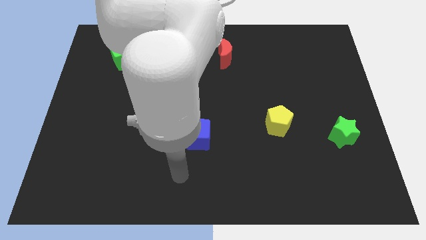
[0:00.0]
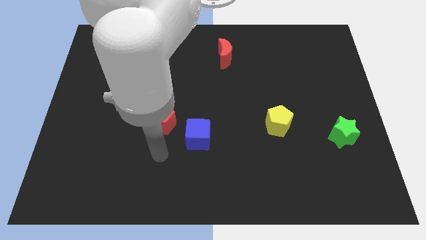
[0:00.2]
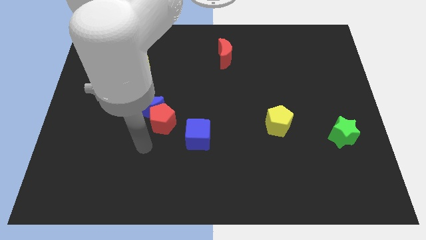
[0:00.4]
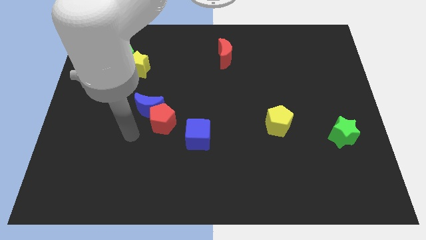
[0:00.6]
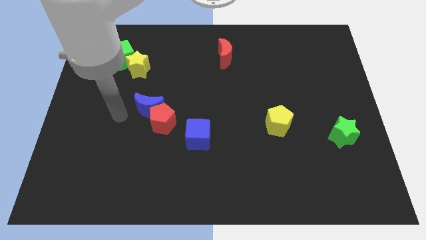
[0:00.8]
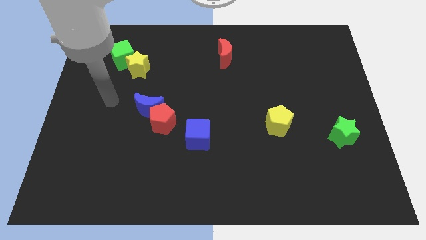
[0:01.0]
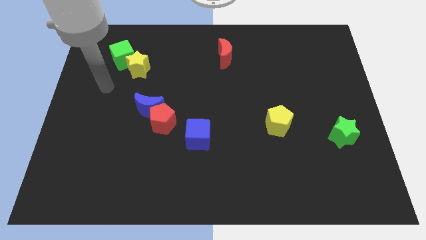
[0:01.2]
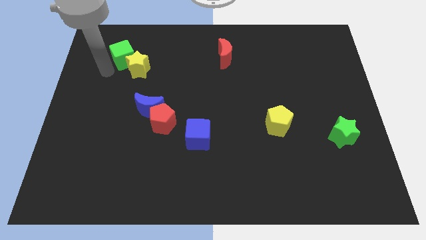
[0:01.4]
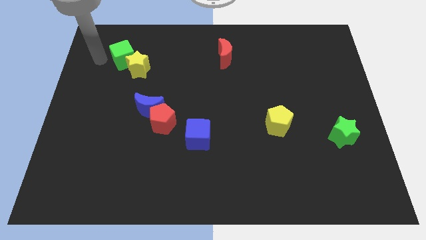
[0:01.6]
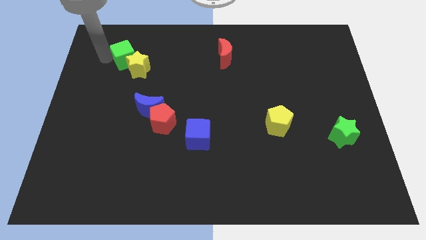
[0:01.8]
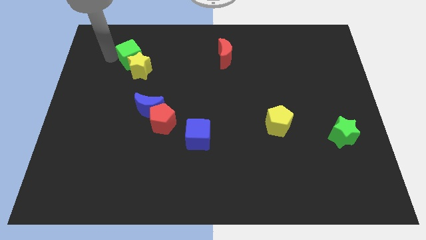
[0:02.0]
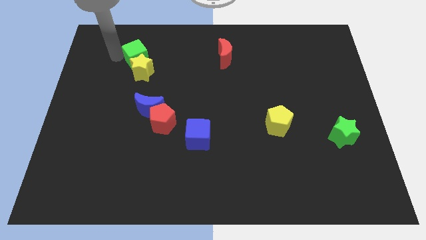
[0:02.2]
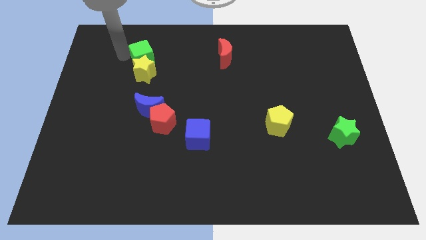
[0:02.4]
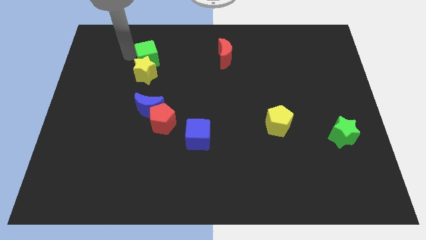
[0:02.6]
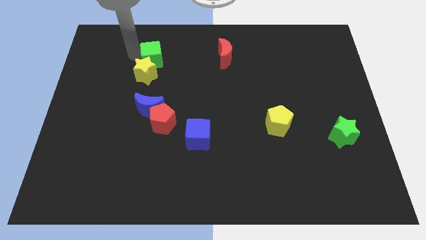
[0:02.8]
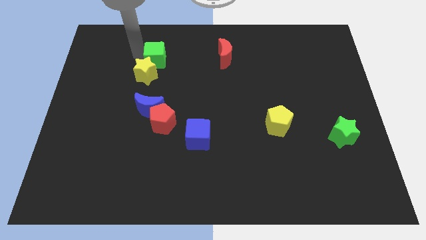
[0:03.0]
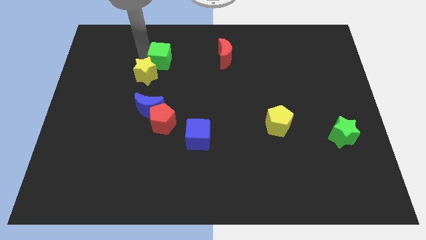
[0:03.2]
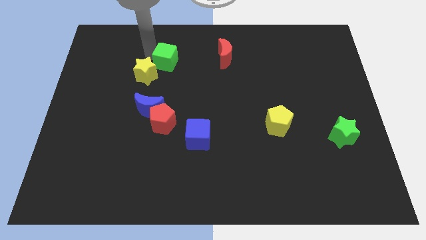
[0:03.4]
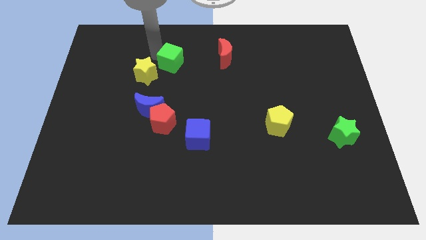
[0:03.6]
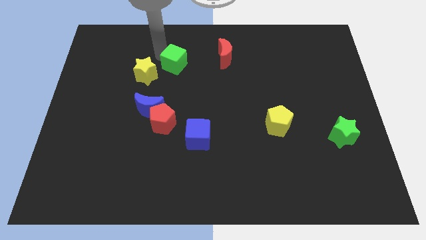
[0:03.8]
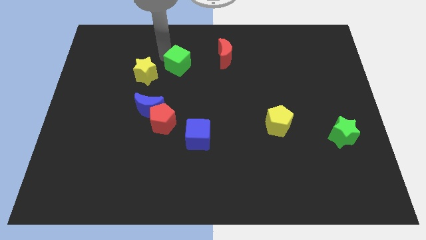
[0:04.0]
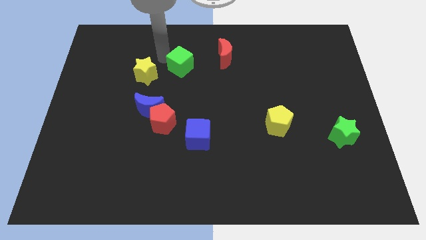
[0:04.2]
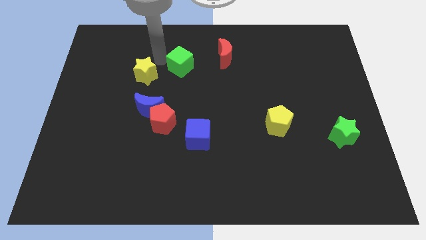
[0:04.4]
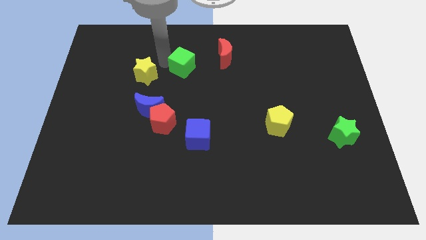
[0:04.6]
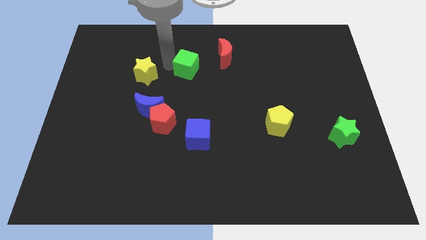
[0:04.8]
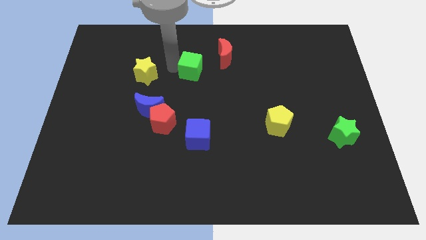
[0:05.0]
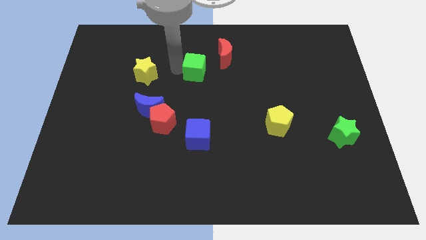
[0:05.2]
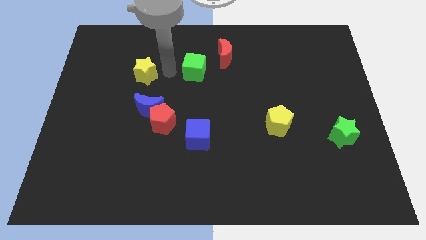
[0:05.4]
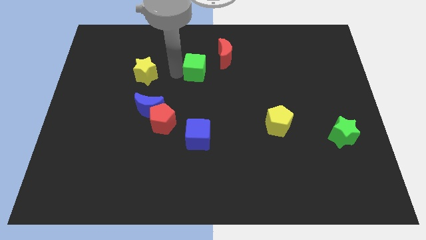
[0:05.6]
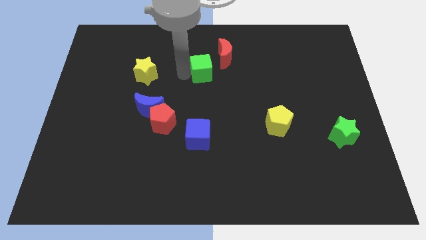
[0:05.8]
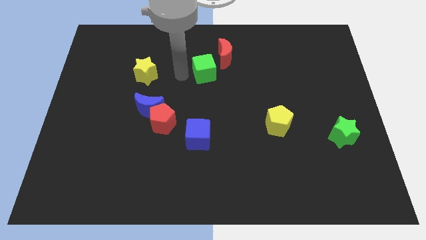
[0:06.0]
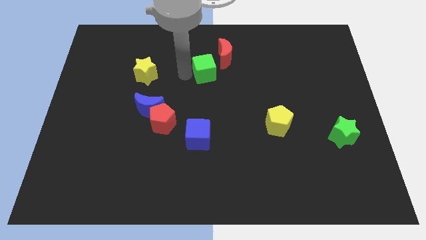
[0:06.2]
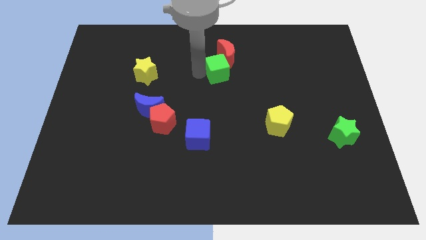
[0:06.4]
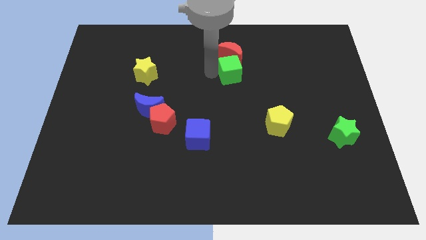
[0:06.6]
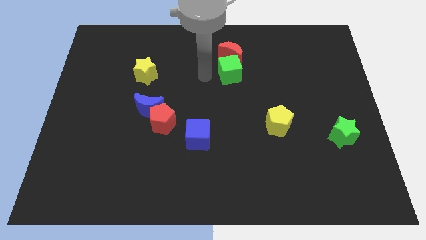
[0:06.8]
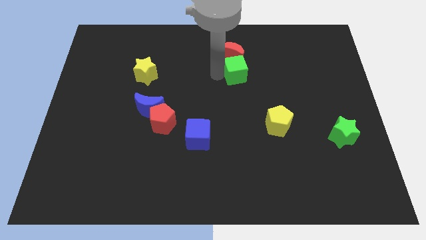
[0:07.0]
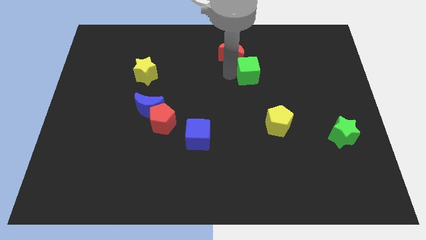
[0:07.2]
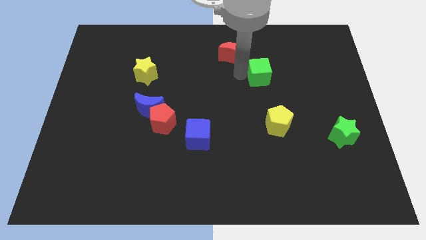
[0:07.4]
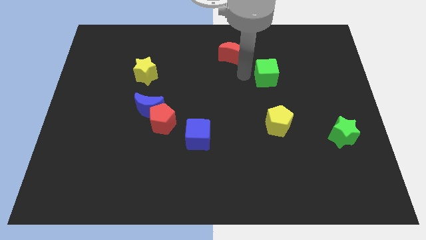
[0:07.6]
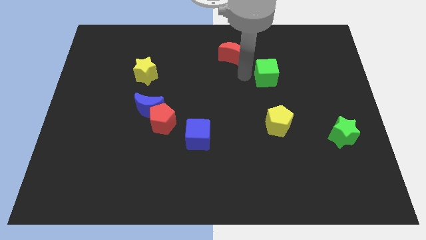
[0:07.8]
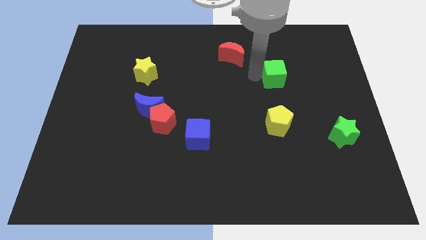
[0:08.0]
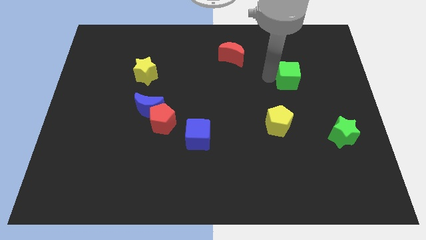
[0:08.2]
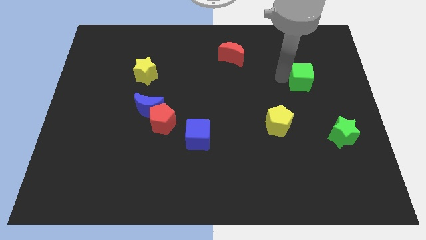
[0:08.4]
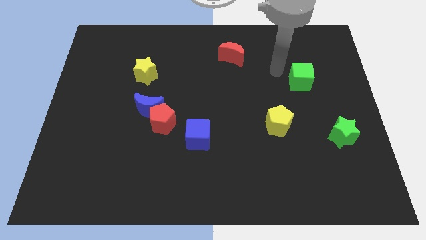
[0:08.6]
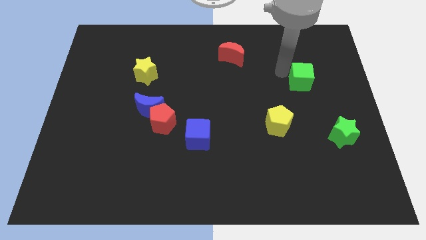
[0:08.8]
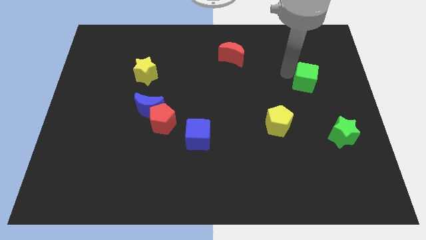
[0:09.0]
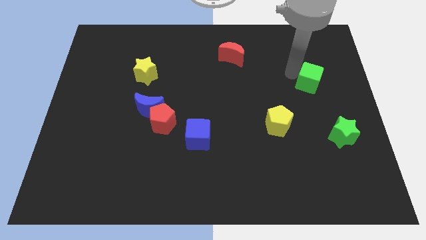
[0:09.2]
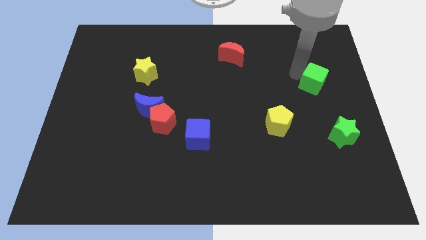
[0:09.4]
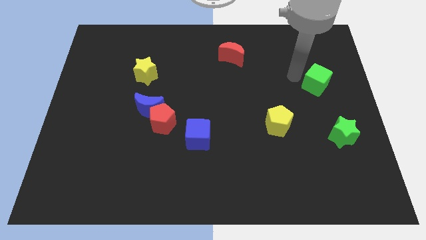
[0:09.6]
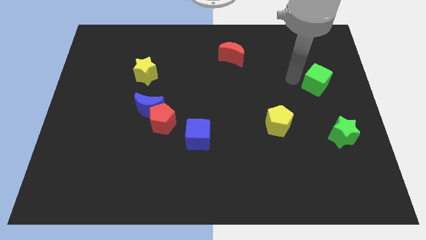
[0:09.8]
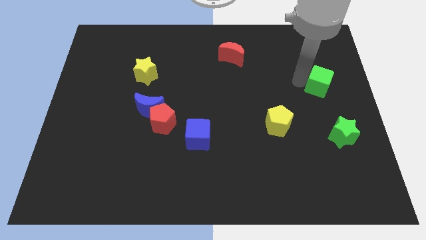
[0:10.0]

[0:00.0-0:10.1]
move the green cube to the right side of the board

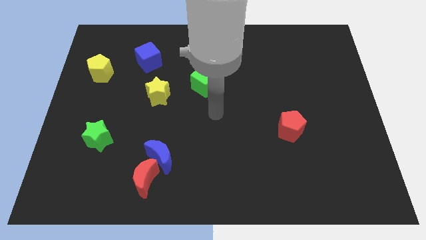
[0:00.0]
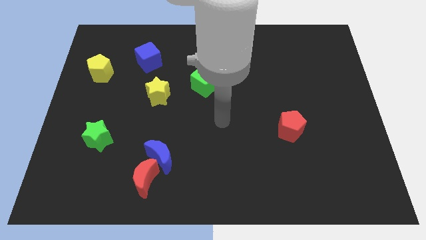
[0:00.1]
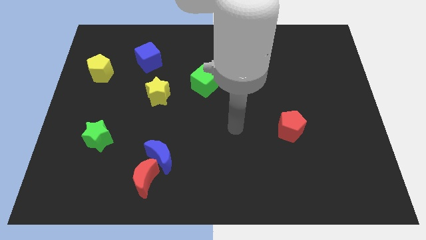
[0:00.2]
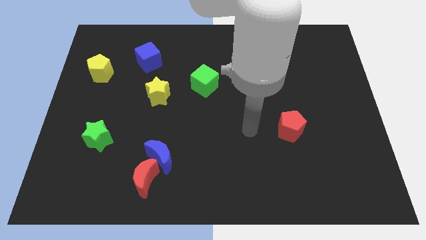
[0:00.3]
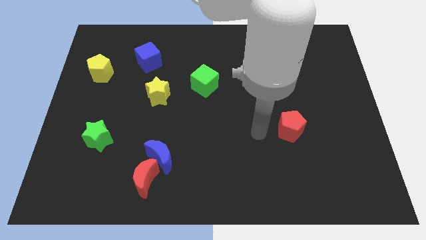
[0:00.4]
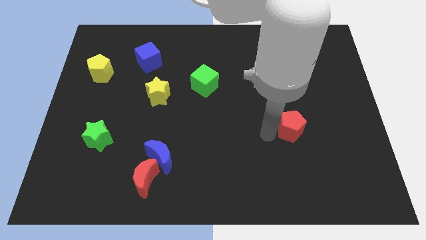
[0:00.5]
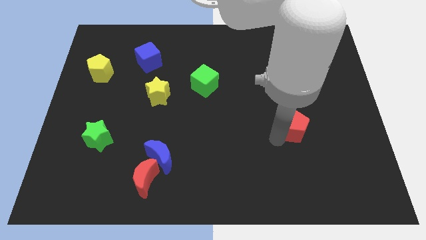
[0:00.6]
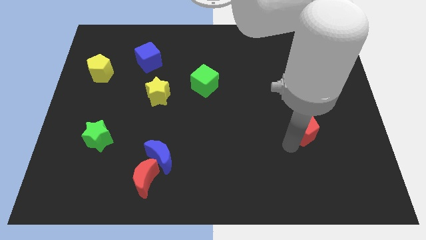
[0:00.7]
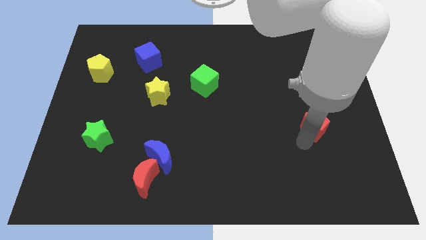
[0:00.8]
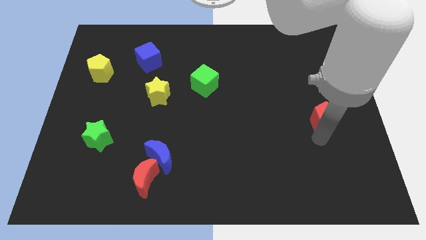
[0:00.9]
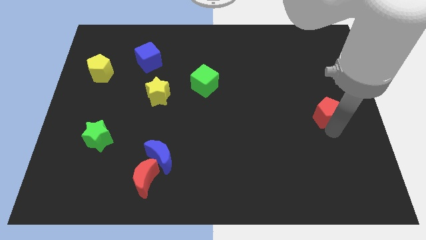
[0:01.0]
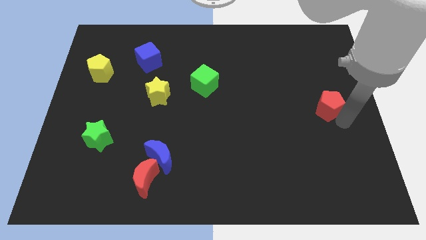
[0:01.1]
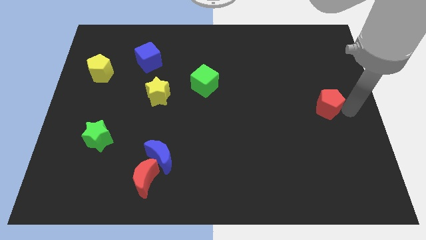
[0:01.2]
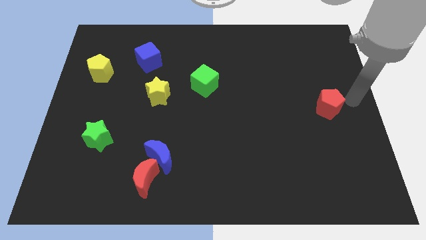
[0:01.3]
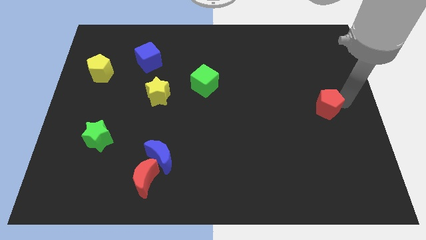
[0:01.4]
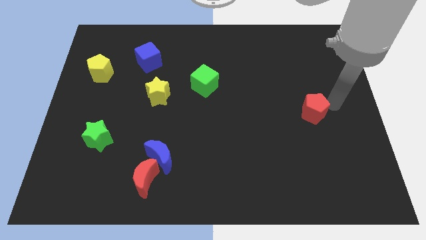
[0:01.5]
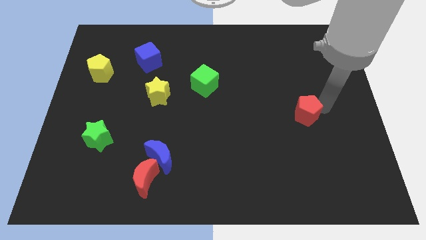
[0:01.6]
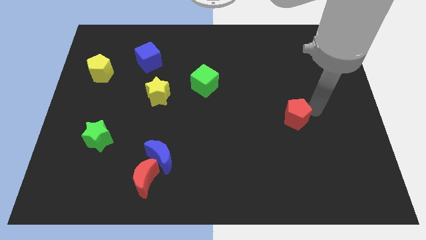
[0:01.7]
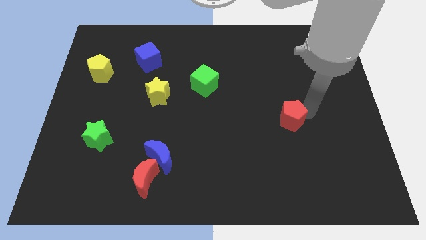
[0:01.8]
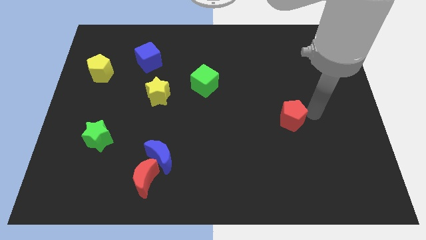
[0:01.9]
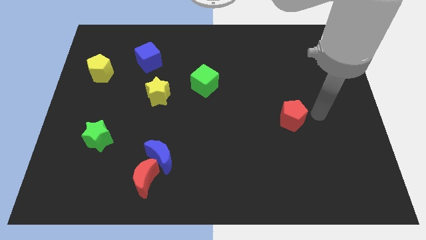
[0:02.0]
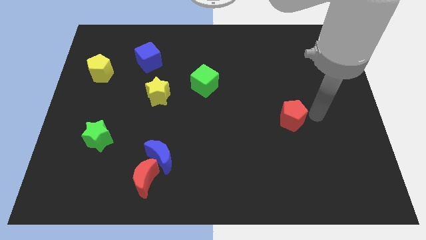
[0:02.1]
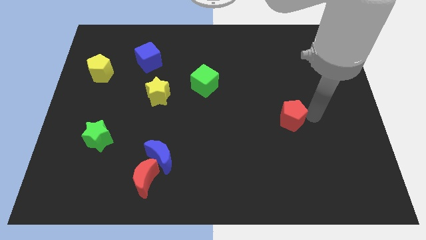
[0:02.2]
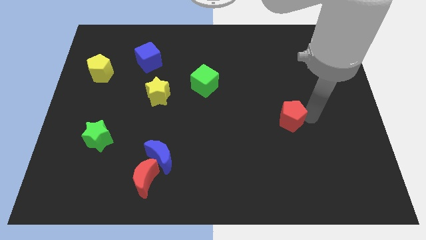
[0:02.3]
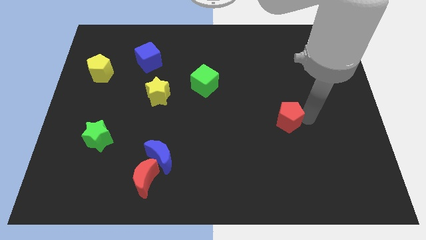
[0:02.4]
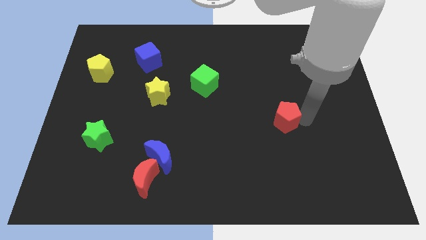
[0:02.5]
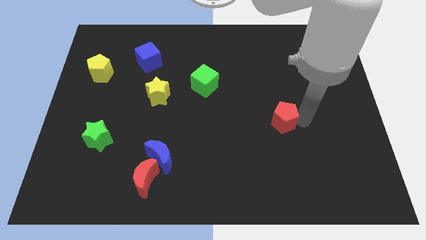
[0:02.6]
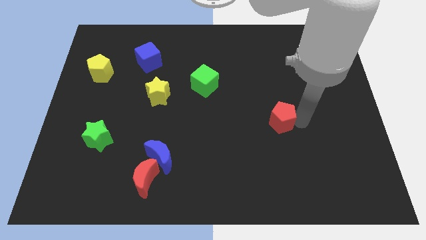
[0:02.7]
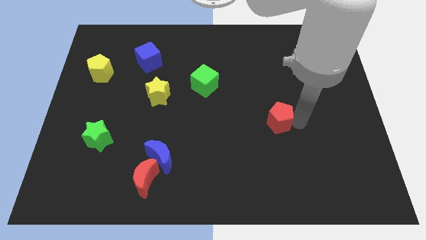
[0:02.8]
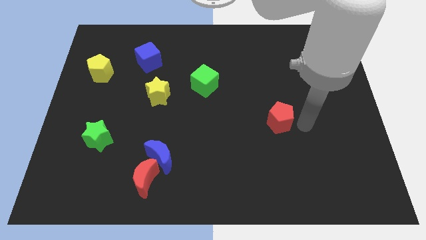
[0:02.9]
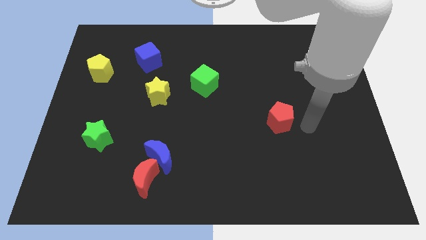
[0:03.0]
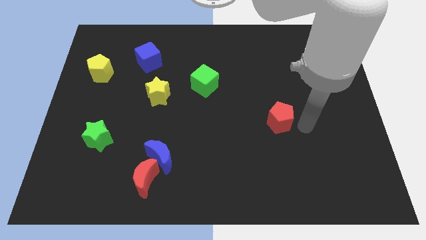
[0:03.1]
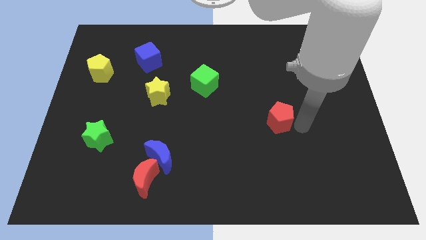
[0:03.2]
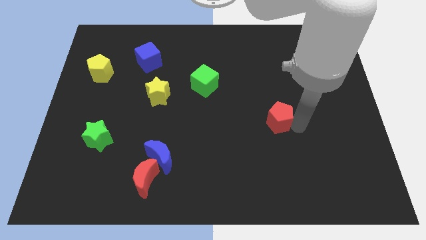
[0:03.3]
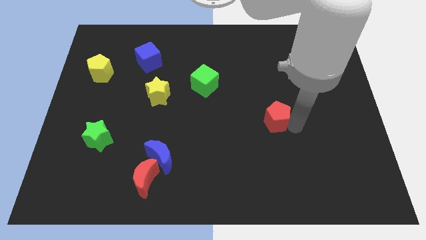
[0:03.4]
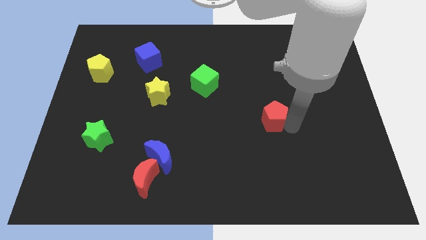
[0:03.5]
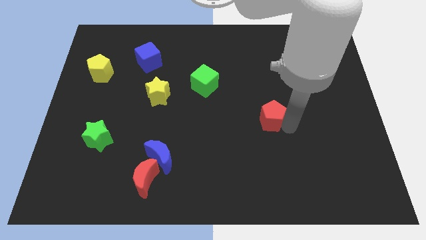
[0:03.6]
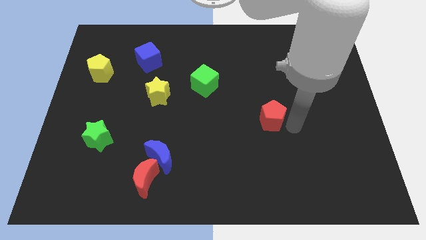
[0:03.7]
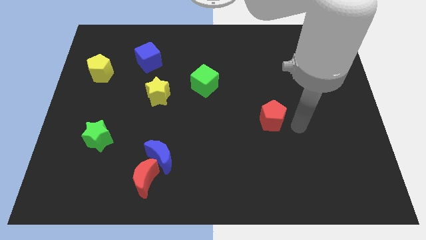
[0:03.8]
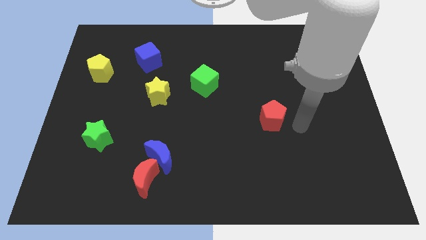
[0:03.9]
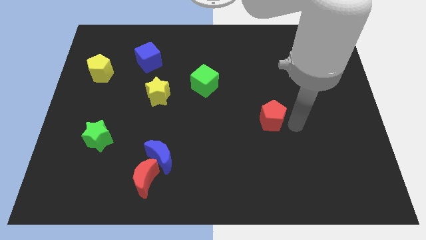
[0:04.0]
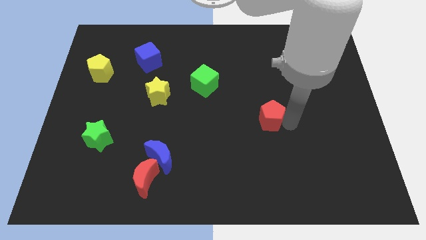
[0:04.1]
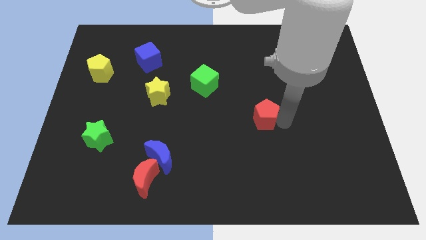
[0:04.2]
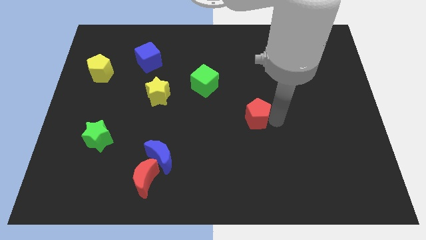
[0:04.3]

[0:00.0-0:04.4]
push the red pentagon to the center
